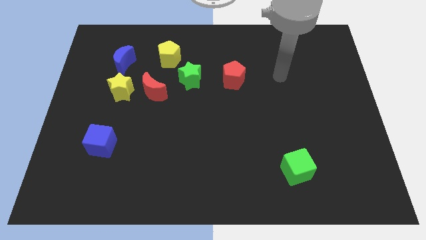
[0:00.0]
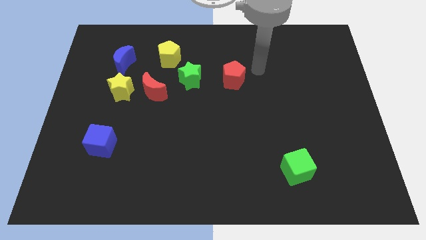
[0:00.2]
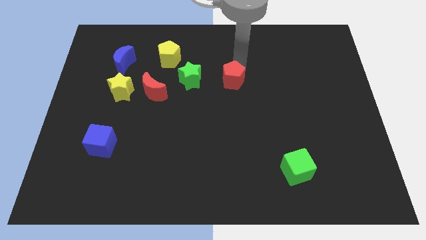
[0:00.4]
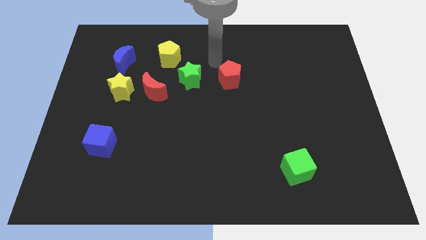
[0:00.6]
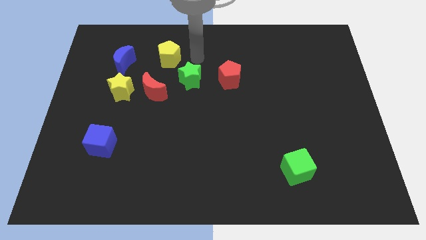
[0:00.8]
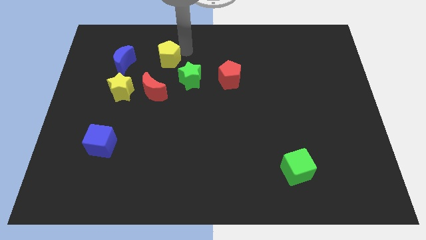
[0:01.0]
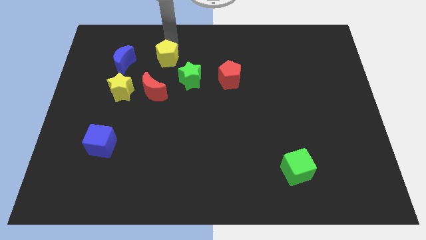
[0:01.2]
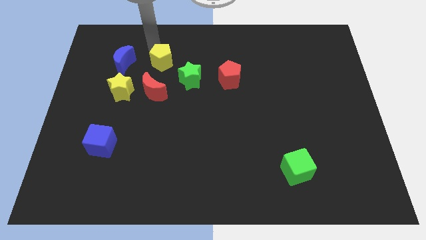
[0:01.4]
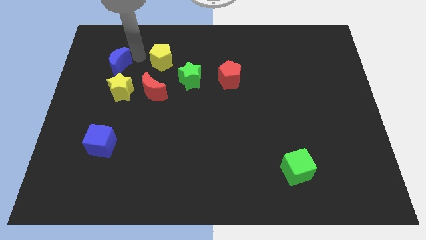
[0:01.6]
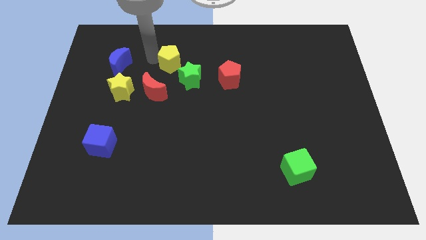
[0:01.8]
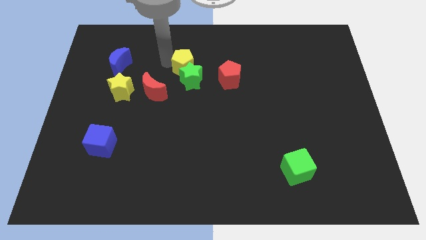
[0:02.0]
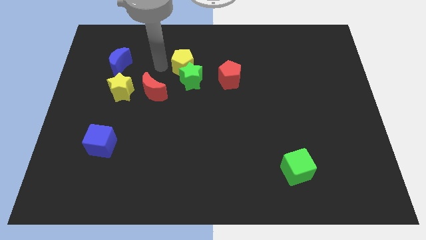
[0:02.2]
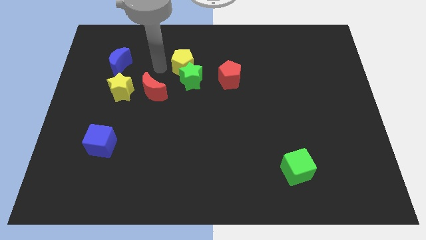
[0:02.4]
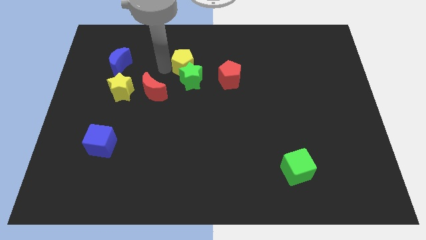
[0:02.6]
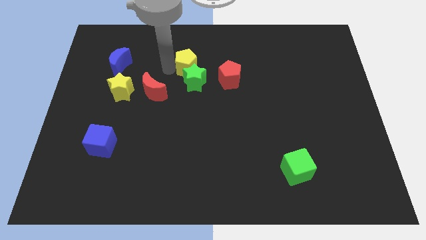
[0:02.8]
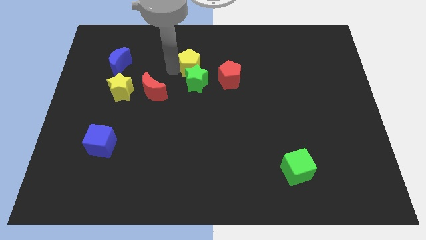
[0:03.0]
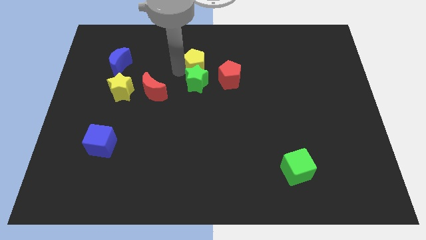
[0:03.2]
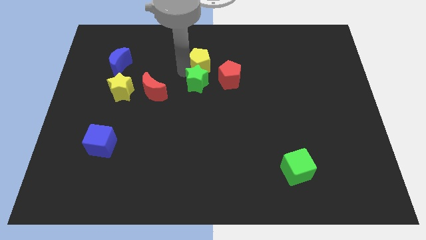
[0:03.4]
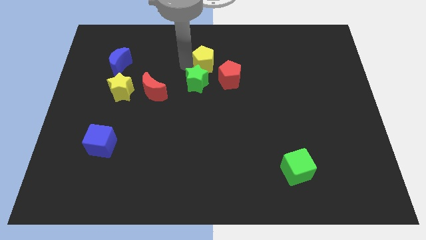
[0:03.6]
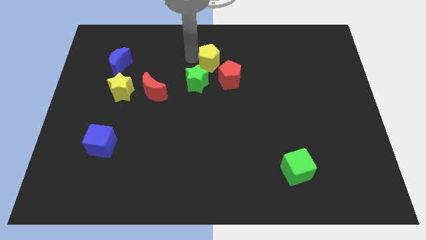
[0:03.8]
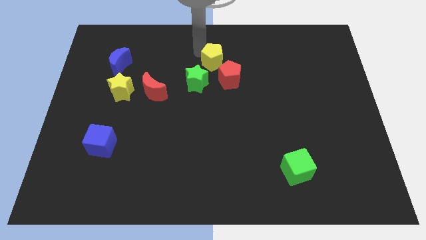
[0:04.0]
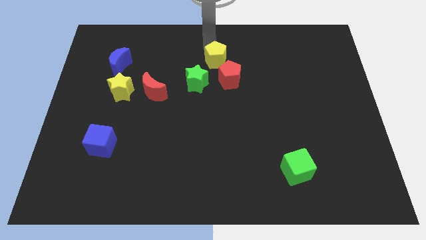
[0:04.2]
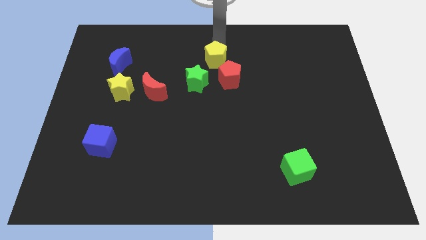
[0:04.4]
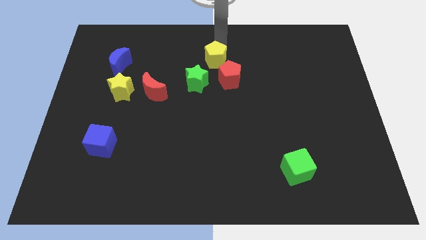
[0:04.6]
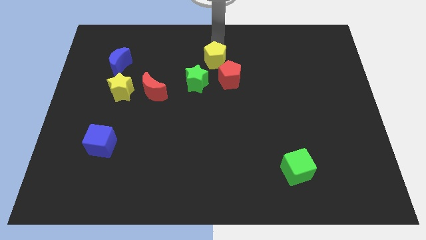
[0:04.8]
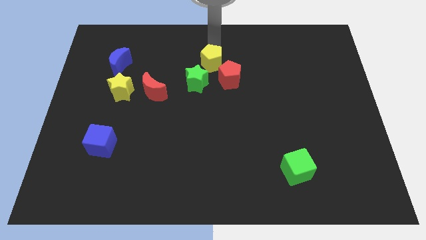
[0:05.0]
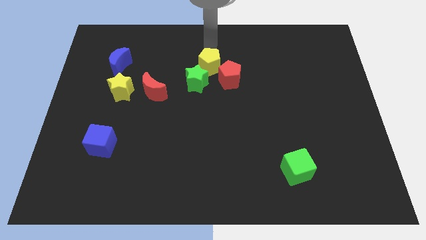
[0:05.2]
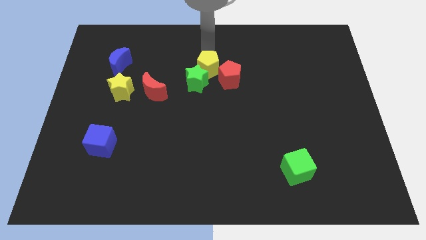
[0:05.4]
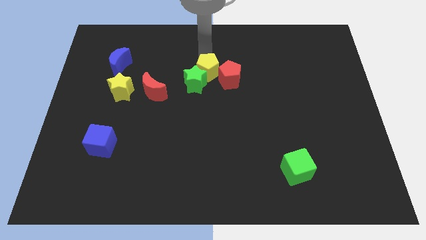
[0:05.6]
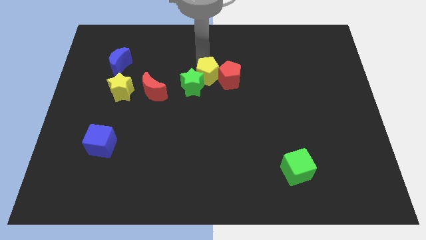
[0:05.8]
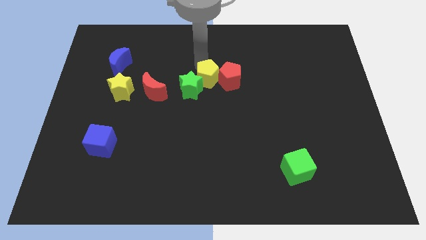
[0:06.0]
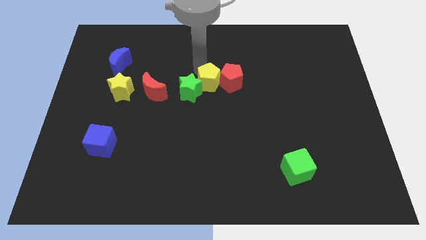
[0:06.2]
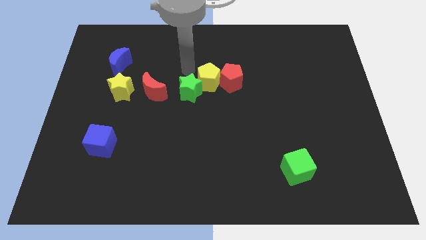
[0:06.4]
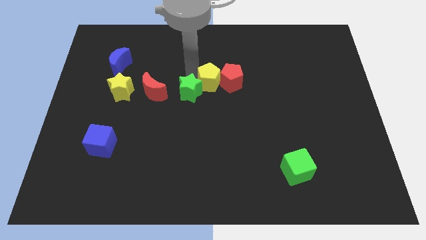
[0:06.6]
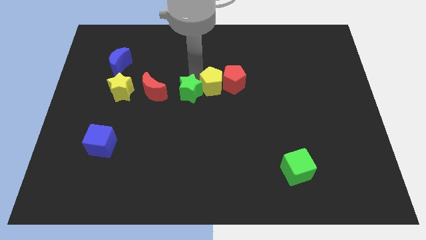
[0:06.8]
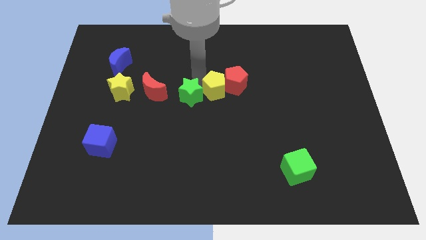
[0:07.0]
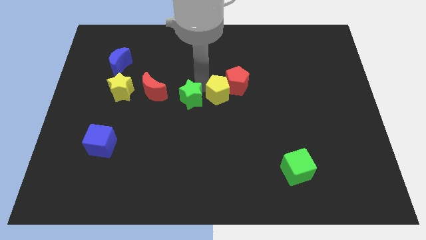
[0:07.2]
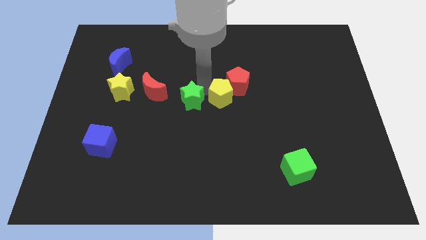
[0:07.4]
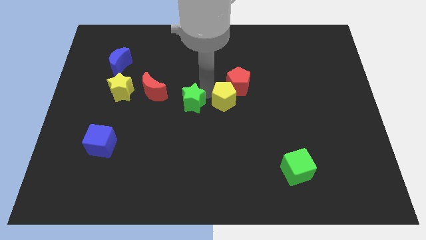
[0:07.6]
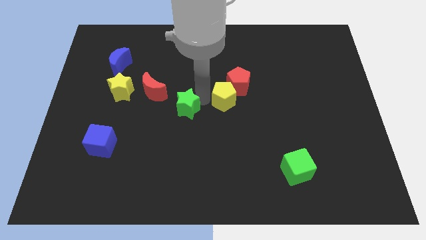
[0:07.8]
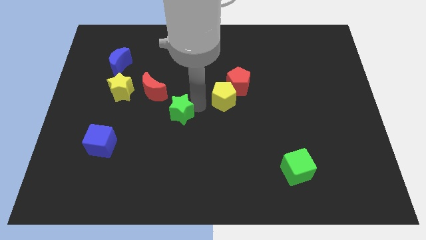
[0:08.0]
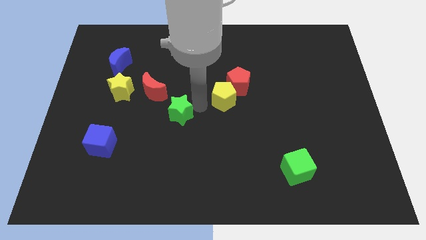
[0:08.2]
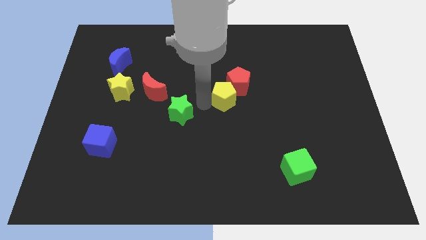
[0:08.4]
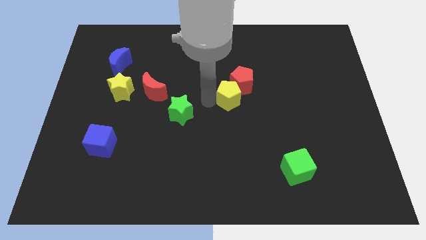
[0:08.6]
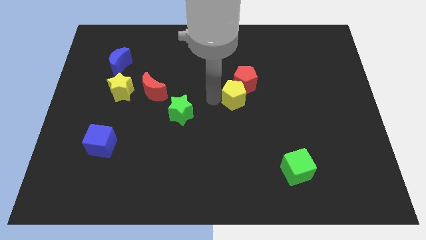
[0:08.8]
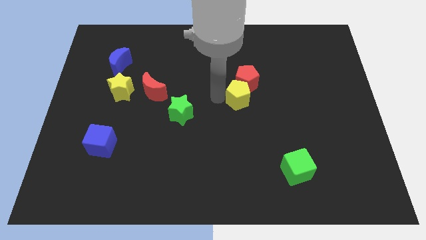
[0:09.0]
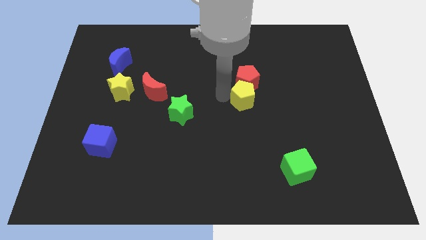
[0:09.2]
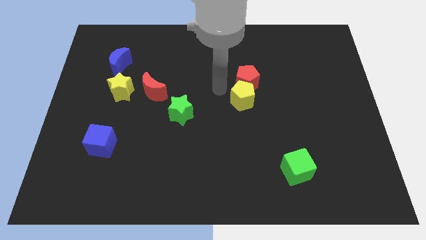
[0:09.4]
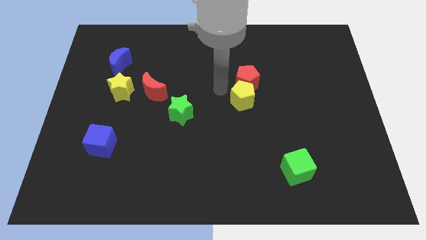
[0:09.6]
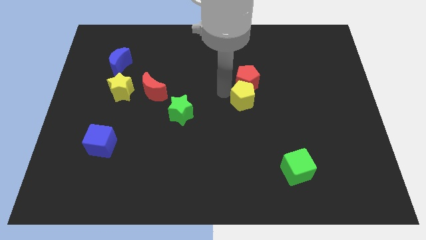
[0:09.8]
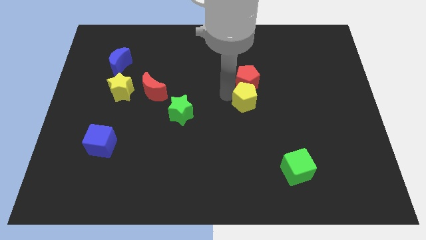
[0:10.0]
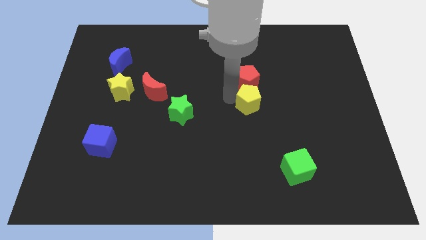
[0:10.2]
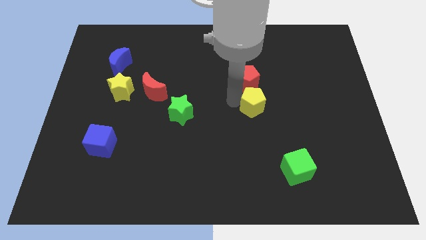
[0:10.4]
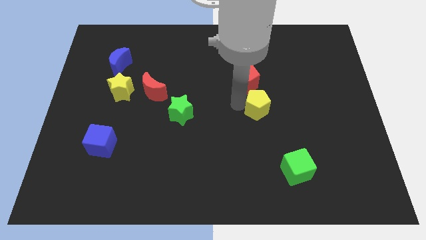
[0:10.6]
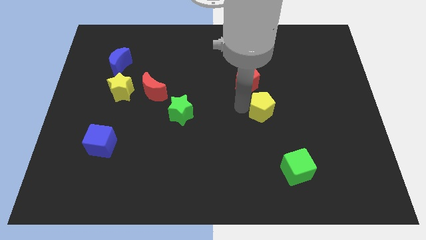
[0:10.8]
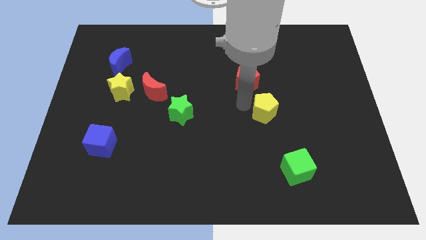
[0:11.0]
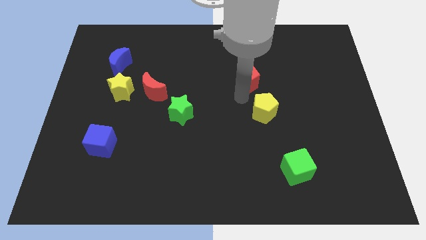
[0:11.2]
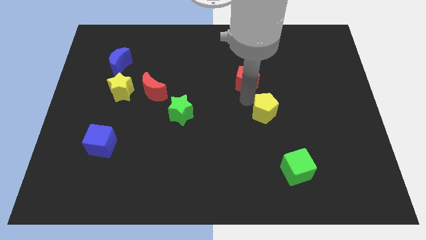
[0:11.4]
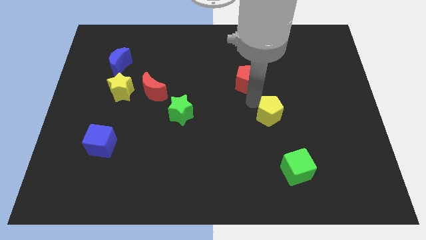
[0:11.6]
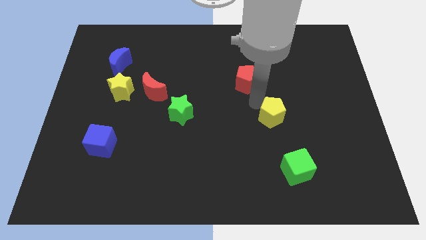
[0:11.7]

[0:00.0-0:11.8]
slide the yellow pentagon above the green cube

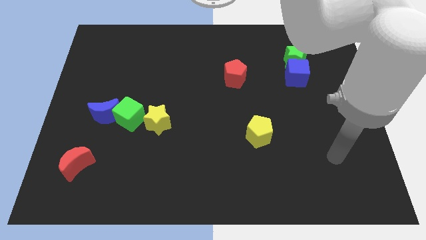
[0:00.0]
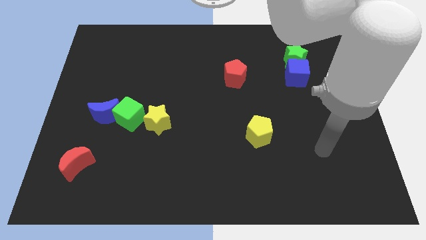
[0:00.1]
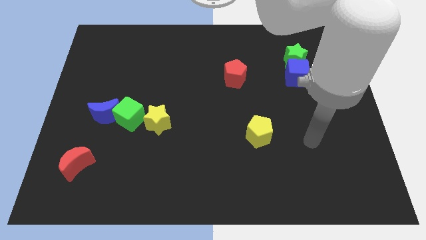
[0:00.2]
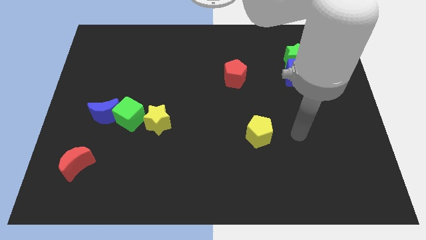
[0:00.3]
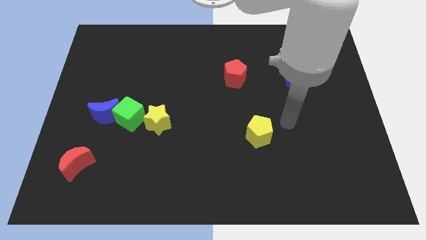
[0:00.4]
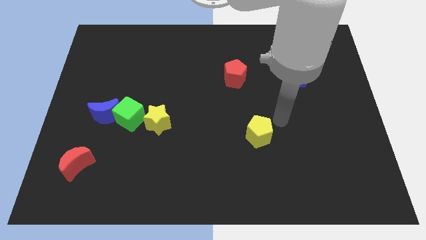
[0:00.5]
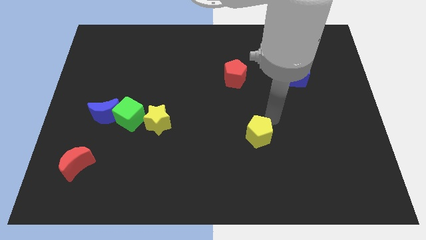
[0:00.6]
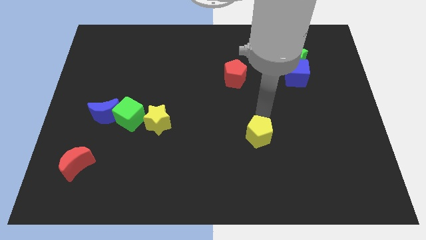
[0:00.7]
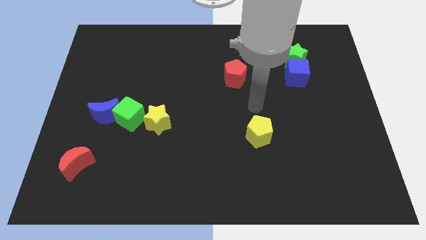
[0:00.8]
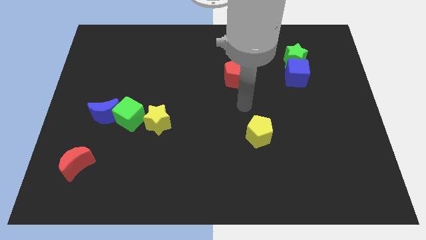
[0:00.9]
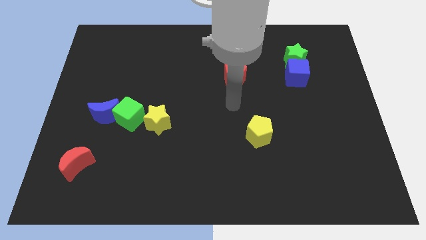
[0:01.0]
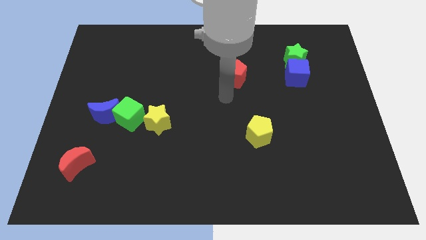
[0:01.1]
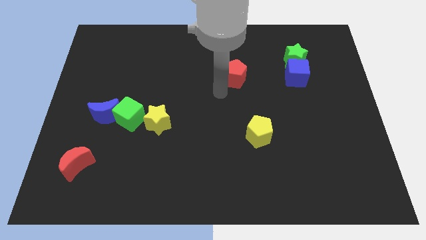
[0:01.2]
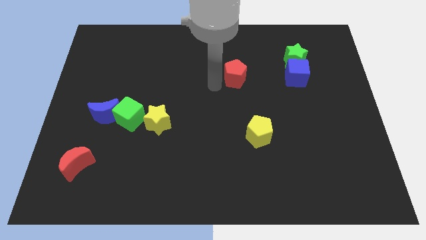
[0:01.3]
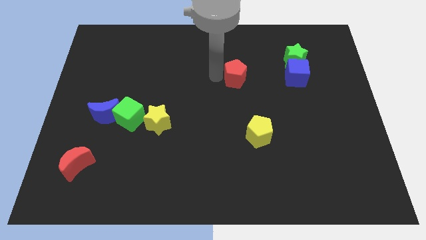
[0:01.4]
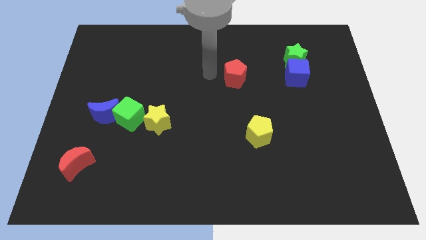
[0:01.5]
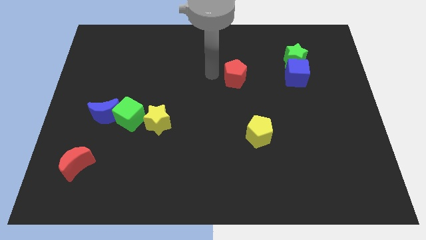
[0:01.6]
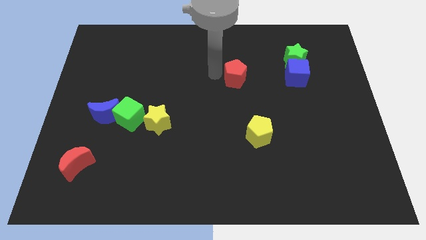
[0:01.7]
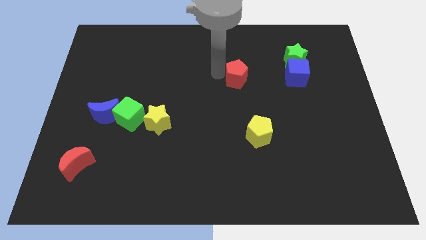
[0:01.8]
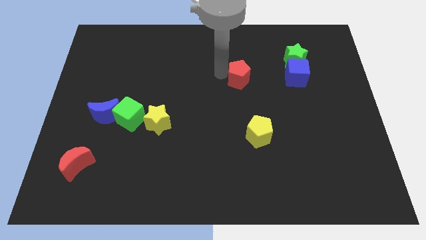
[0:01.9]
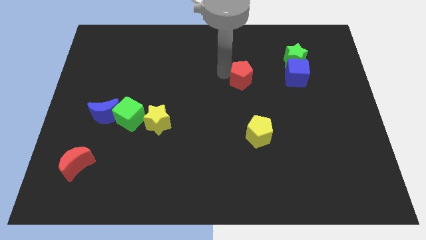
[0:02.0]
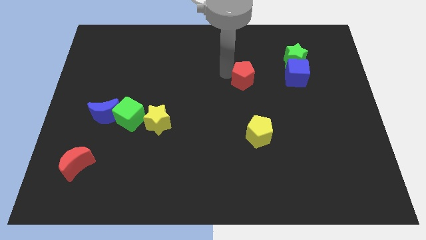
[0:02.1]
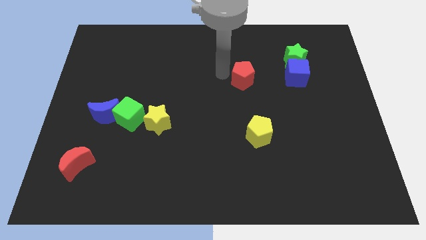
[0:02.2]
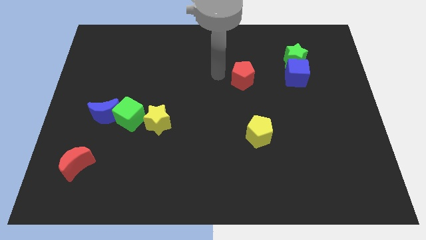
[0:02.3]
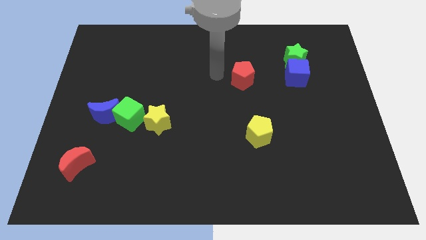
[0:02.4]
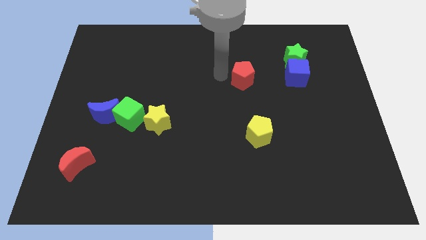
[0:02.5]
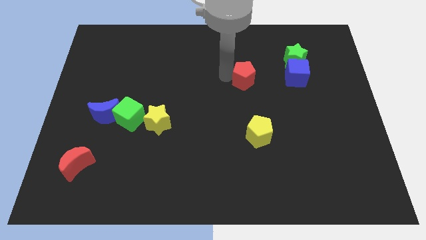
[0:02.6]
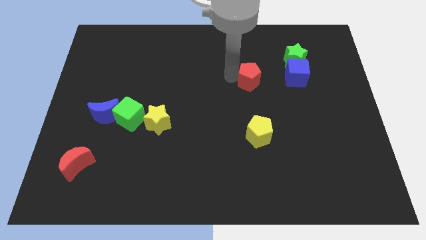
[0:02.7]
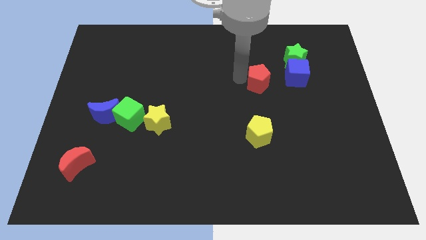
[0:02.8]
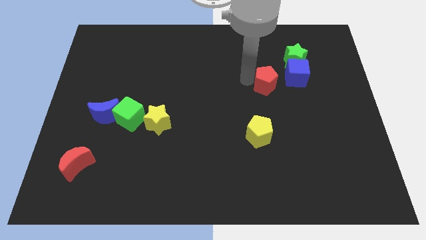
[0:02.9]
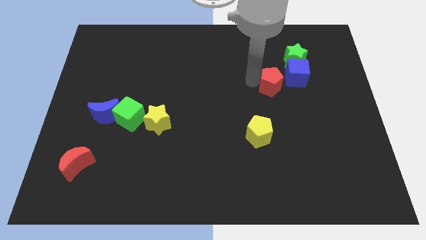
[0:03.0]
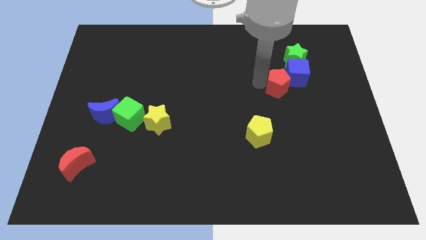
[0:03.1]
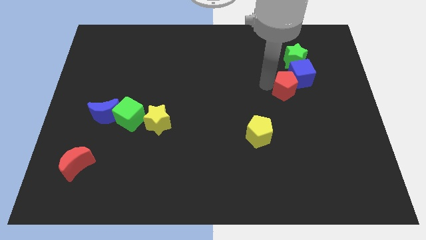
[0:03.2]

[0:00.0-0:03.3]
put the red pentagon to the bottom side of the green star
